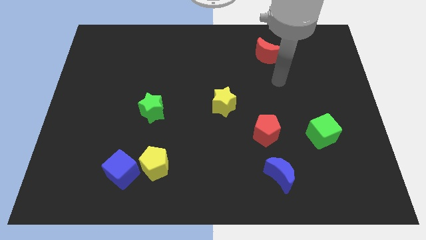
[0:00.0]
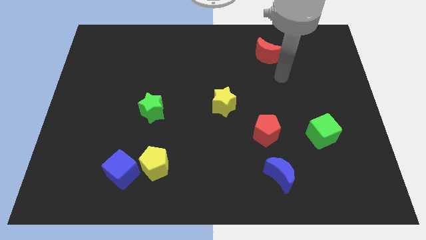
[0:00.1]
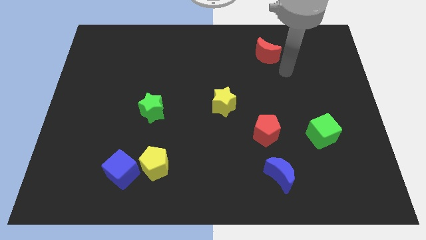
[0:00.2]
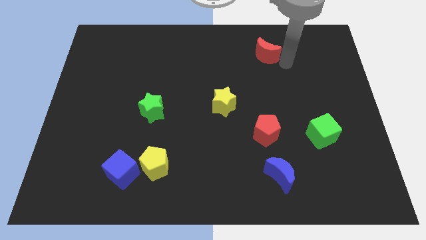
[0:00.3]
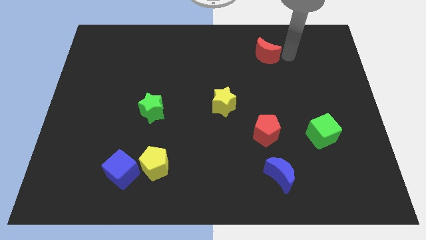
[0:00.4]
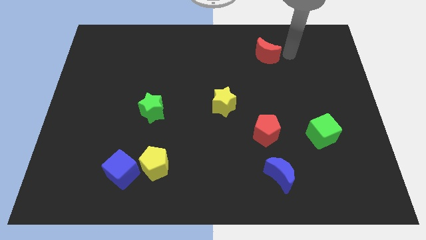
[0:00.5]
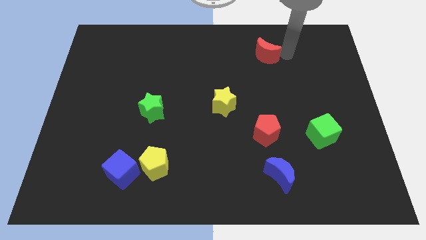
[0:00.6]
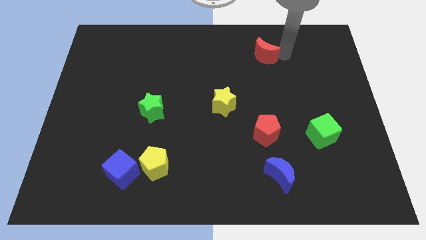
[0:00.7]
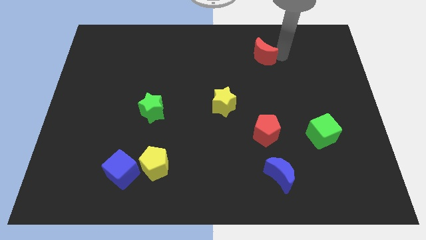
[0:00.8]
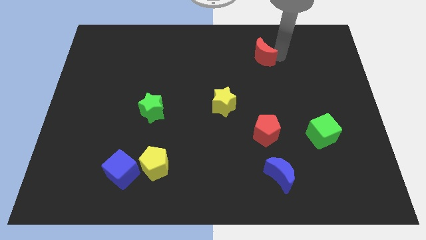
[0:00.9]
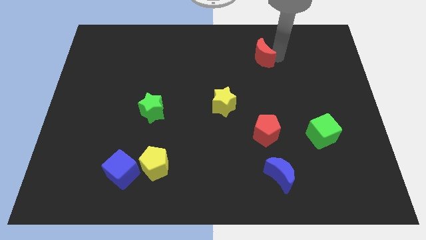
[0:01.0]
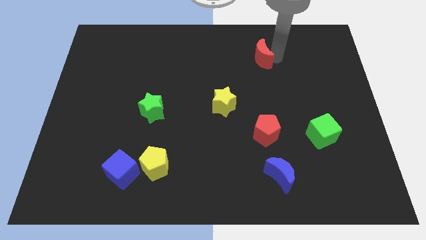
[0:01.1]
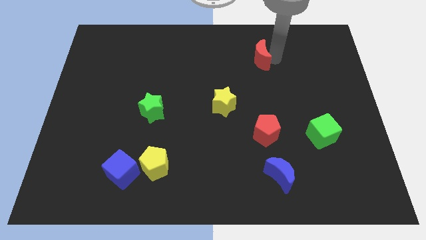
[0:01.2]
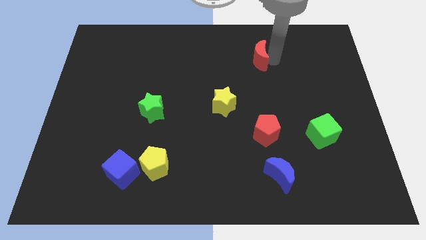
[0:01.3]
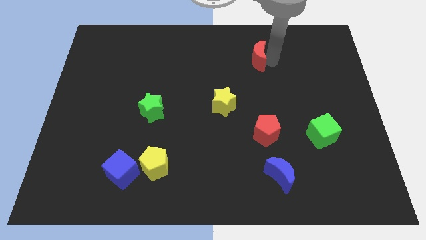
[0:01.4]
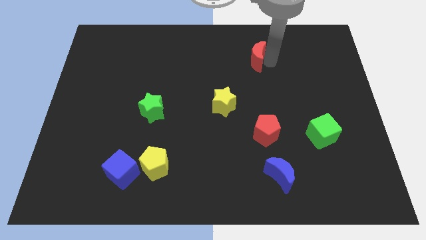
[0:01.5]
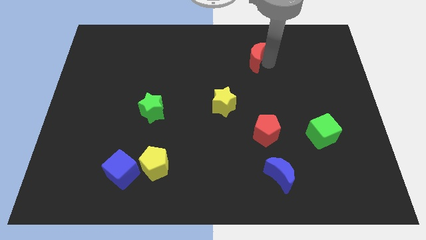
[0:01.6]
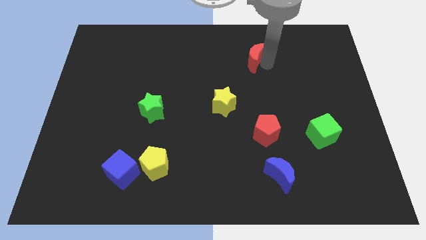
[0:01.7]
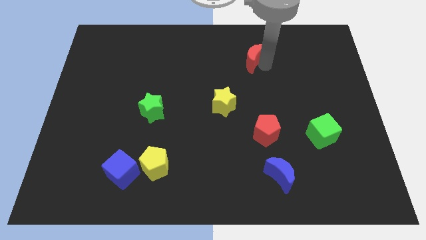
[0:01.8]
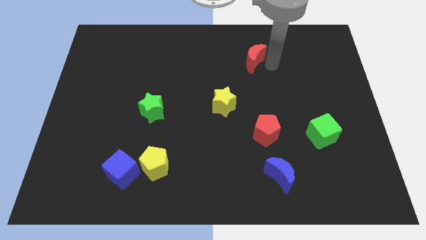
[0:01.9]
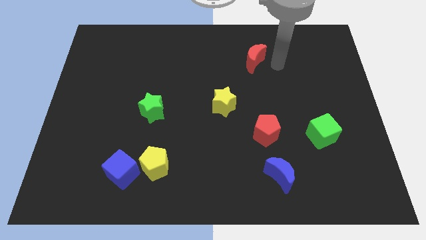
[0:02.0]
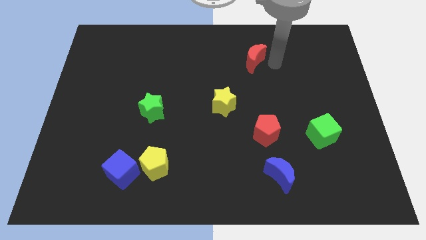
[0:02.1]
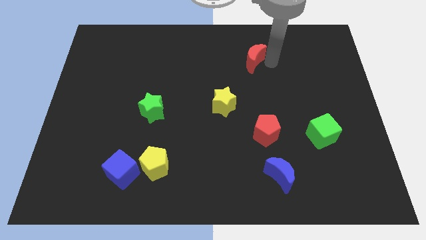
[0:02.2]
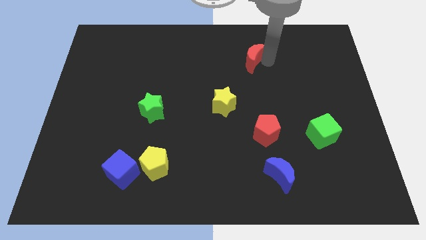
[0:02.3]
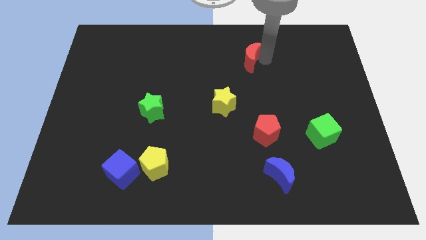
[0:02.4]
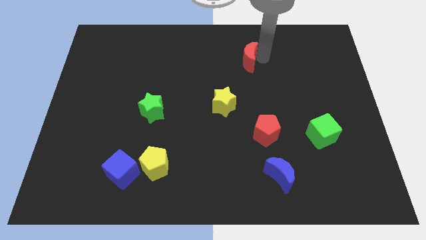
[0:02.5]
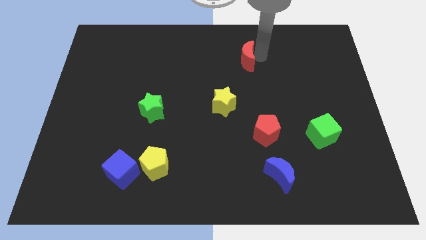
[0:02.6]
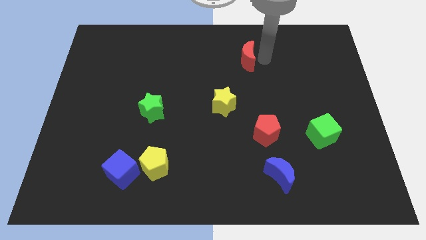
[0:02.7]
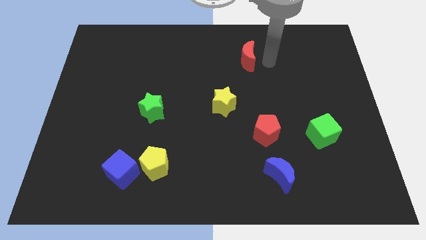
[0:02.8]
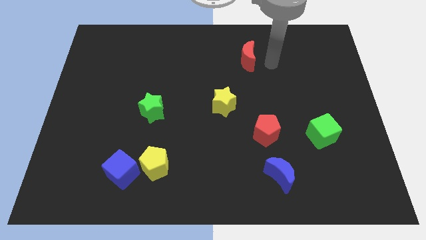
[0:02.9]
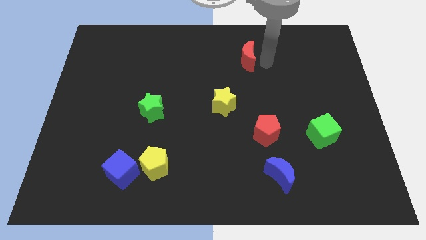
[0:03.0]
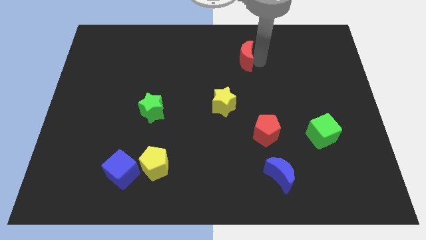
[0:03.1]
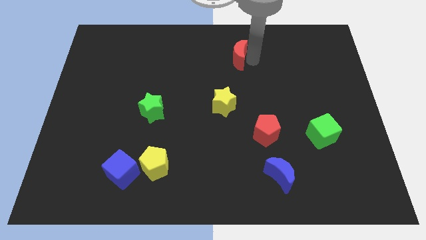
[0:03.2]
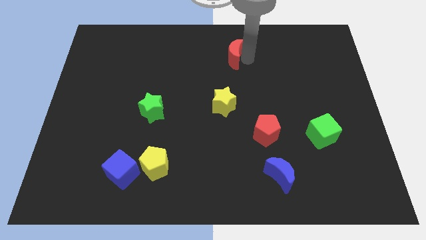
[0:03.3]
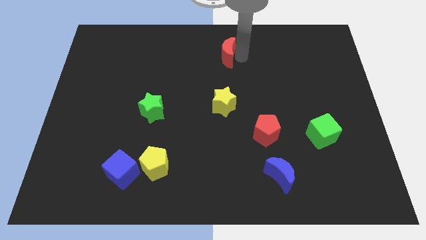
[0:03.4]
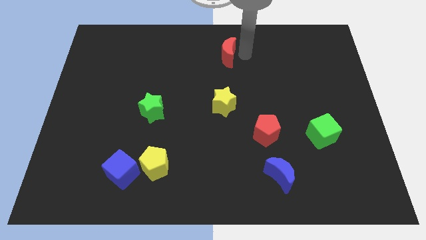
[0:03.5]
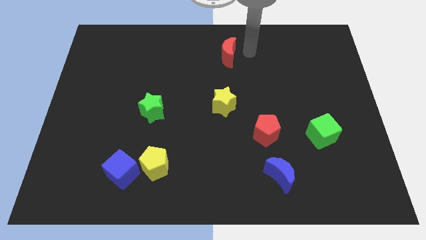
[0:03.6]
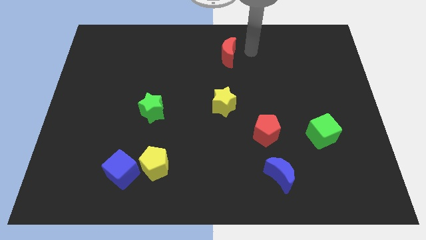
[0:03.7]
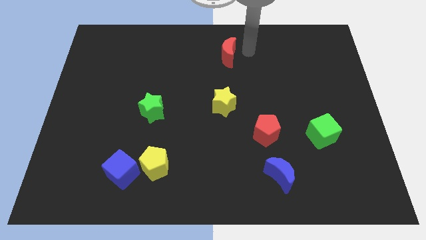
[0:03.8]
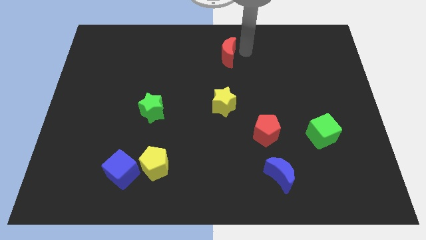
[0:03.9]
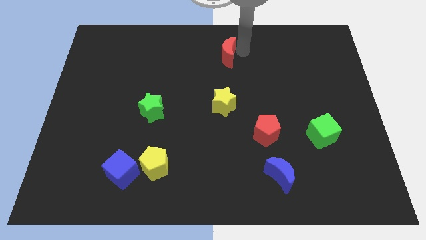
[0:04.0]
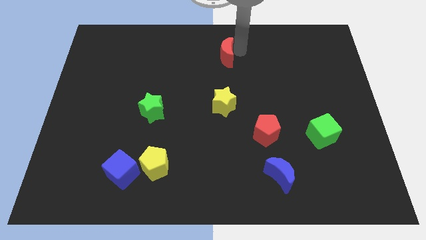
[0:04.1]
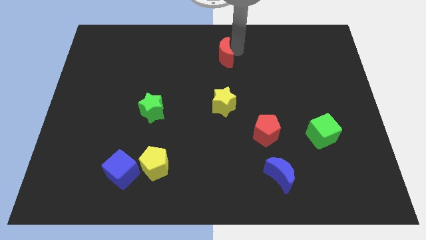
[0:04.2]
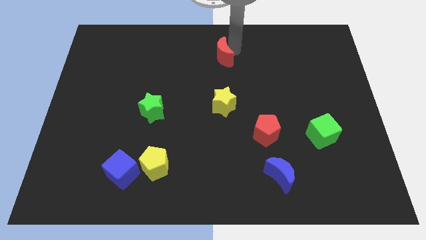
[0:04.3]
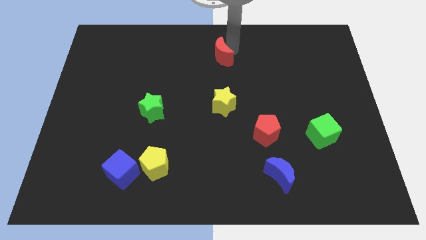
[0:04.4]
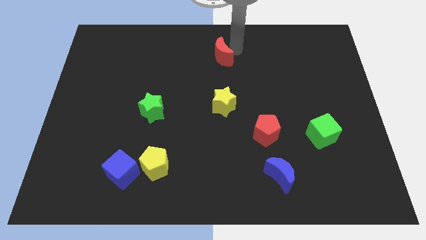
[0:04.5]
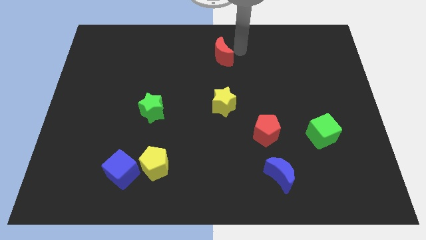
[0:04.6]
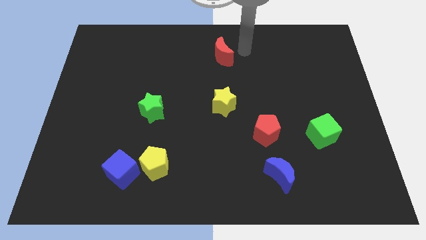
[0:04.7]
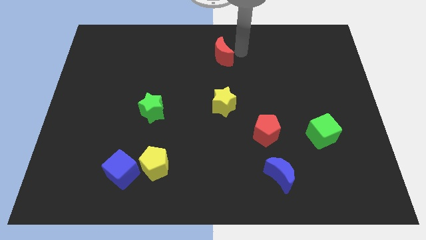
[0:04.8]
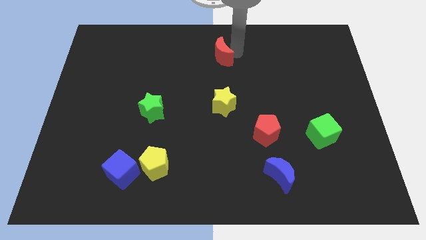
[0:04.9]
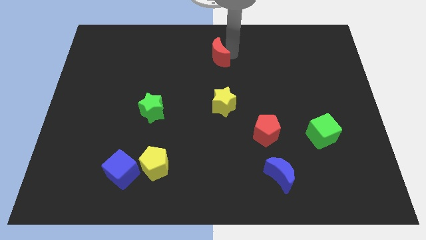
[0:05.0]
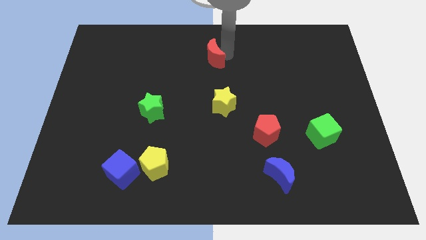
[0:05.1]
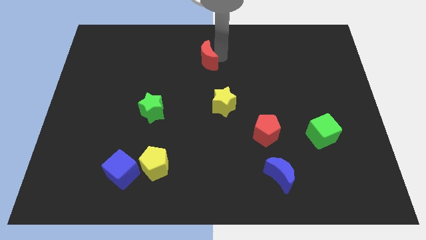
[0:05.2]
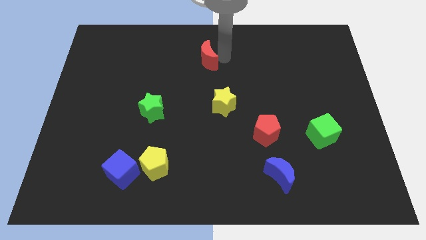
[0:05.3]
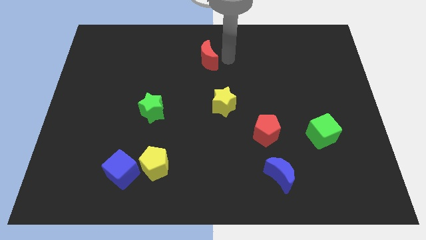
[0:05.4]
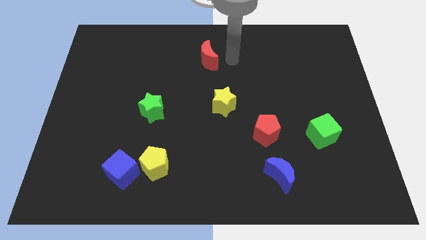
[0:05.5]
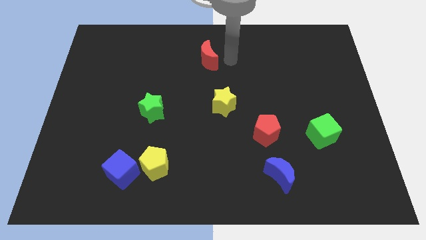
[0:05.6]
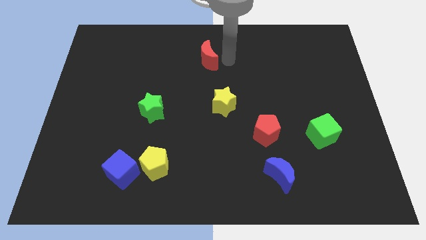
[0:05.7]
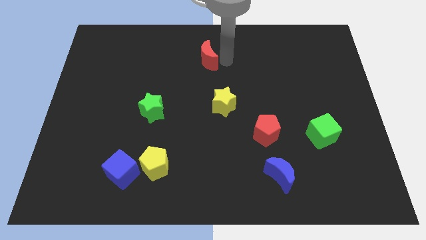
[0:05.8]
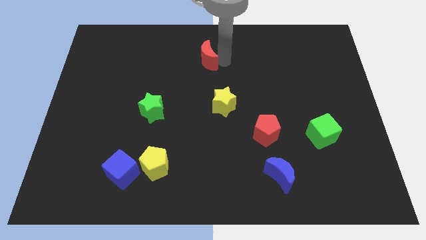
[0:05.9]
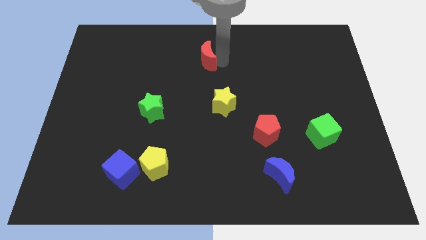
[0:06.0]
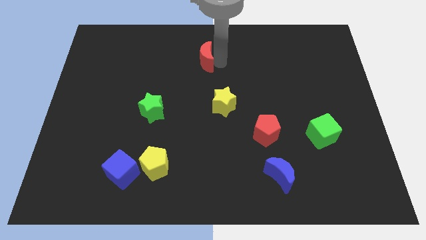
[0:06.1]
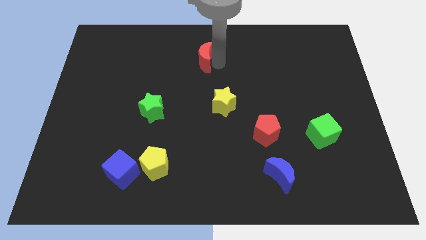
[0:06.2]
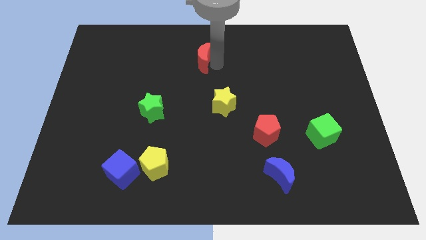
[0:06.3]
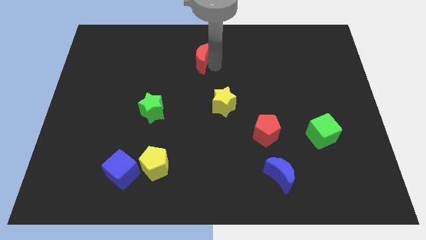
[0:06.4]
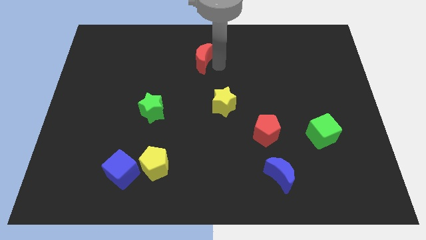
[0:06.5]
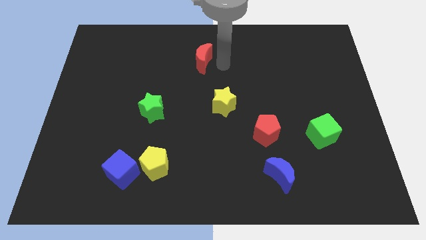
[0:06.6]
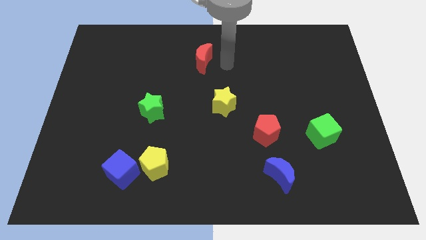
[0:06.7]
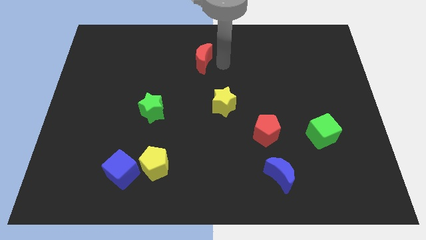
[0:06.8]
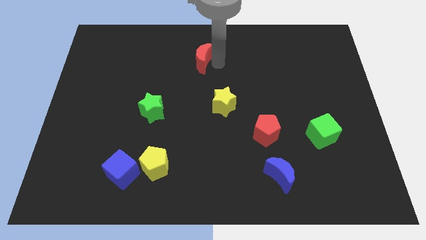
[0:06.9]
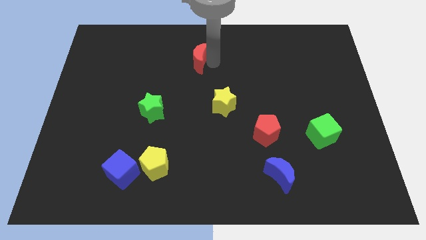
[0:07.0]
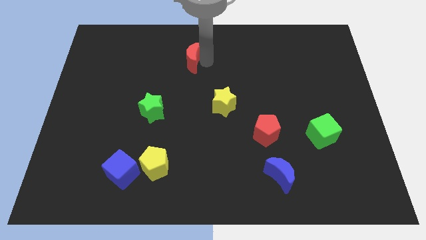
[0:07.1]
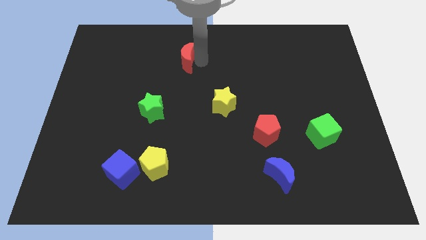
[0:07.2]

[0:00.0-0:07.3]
slide the red moon left
